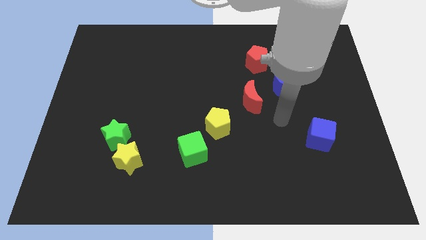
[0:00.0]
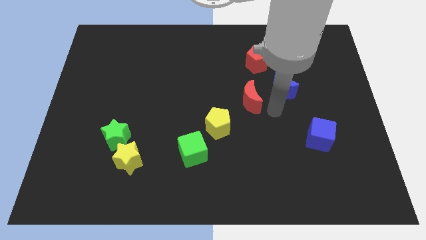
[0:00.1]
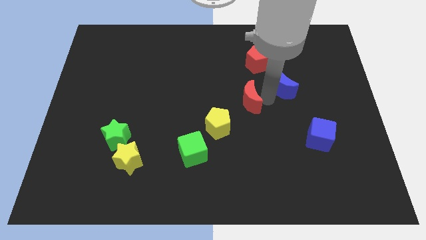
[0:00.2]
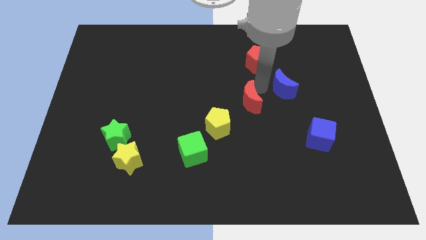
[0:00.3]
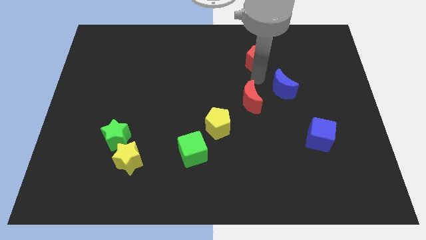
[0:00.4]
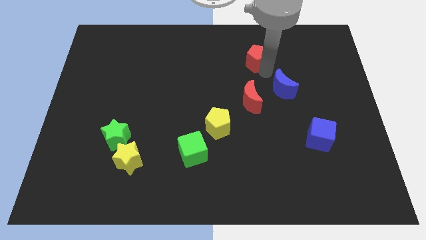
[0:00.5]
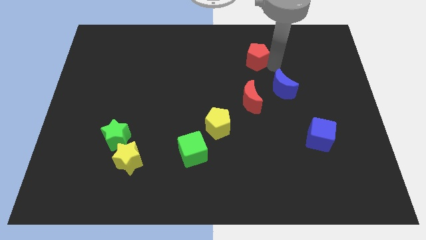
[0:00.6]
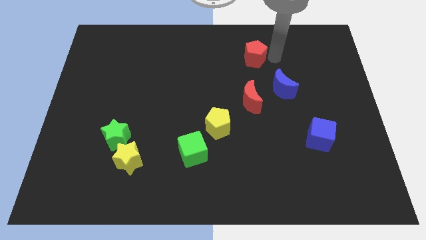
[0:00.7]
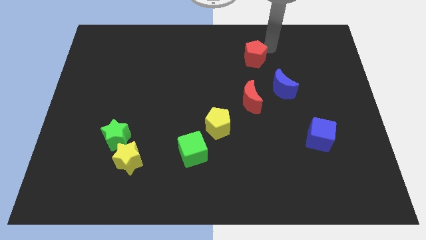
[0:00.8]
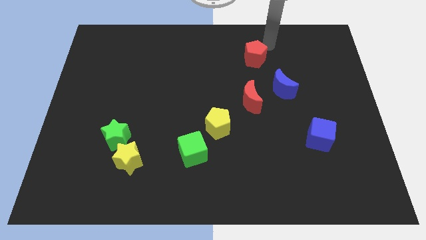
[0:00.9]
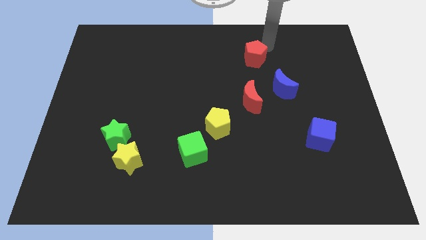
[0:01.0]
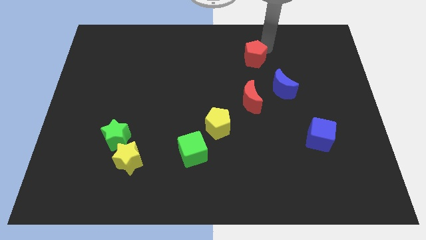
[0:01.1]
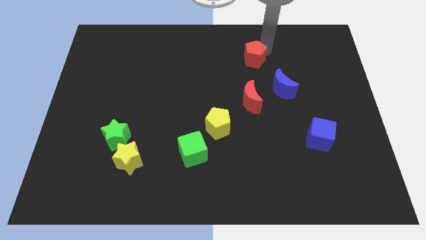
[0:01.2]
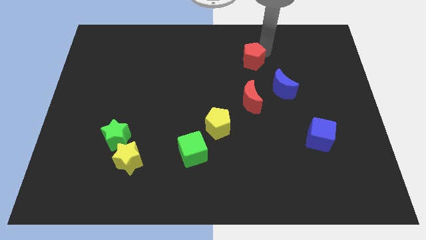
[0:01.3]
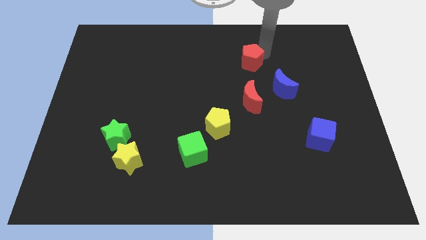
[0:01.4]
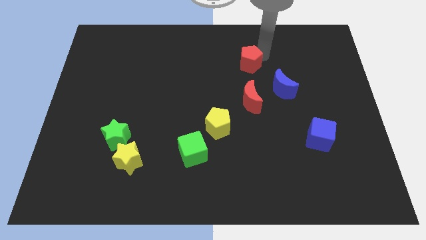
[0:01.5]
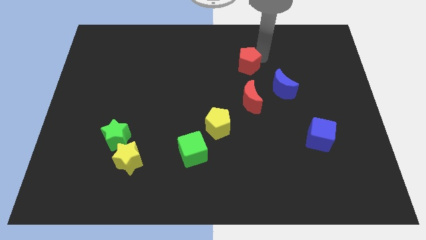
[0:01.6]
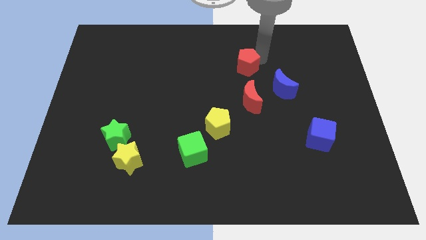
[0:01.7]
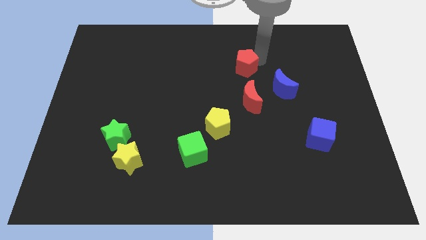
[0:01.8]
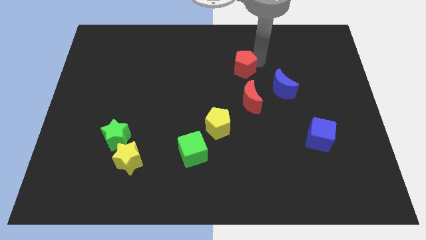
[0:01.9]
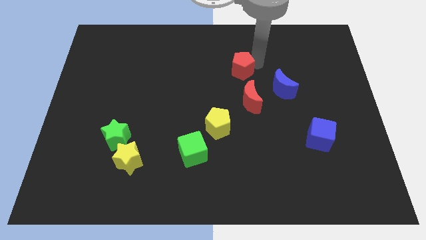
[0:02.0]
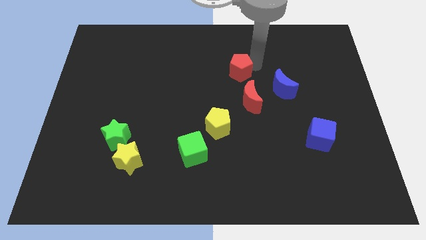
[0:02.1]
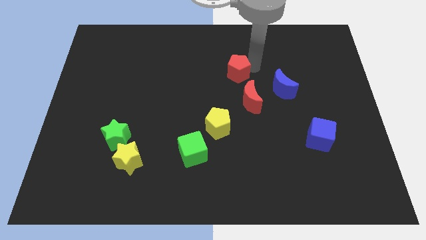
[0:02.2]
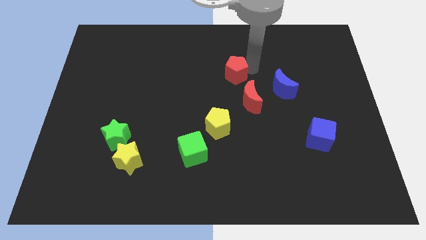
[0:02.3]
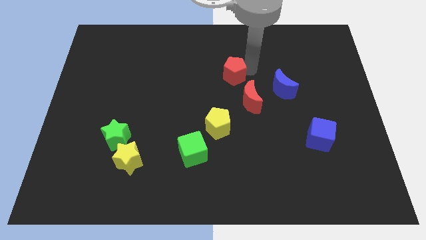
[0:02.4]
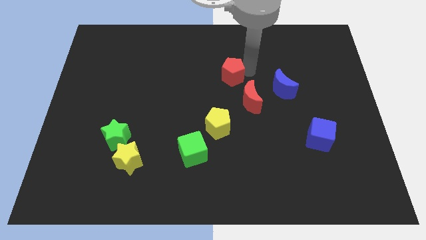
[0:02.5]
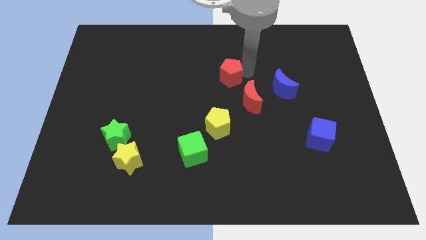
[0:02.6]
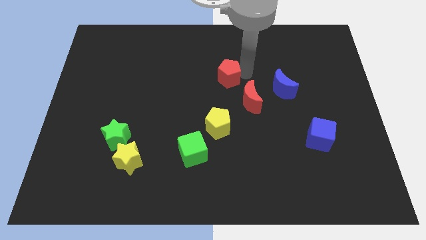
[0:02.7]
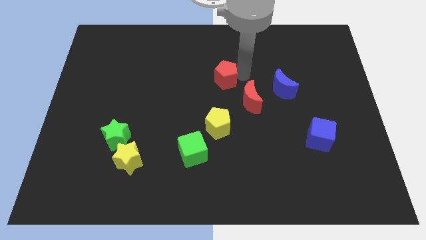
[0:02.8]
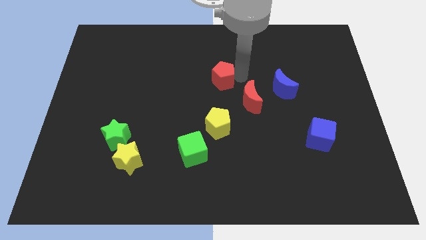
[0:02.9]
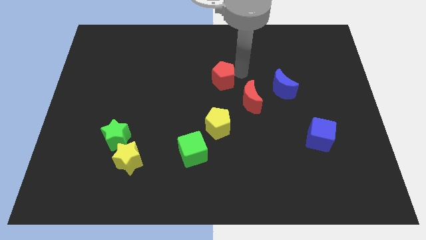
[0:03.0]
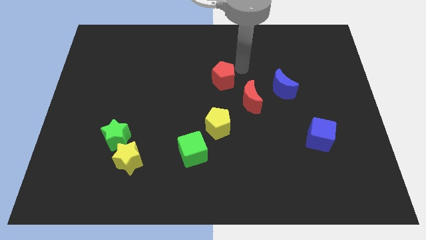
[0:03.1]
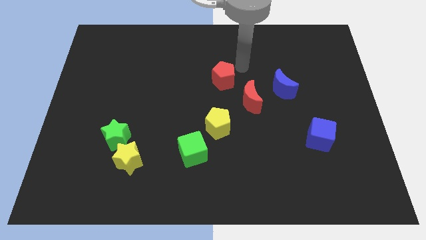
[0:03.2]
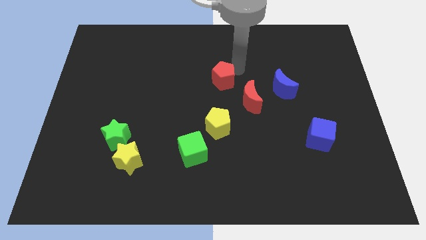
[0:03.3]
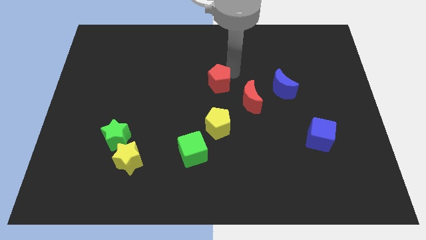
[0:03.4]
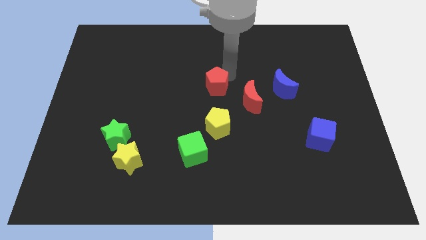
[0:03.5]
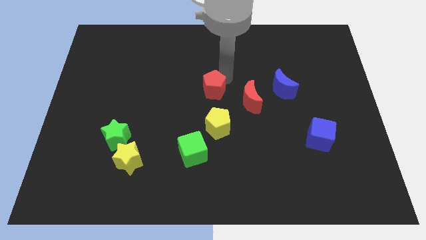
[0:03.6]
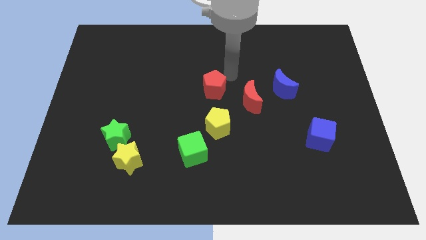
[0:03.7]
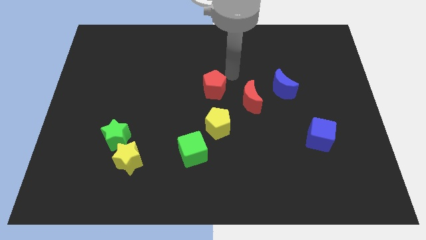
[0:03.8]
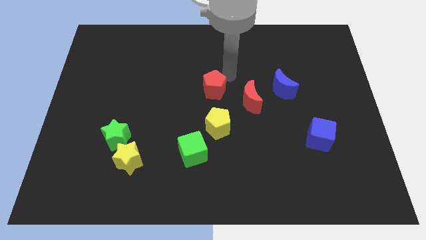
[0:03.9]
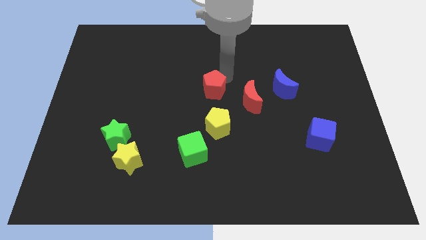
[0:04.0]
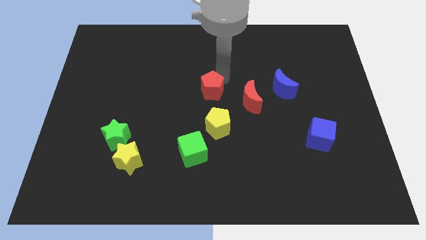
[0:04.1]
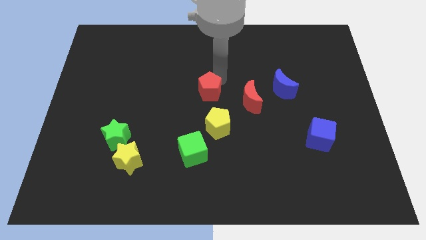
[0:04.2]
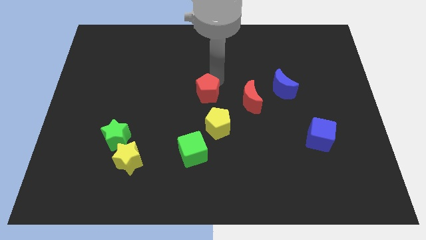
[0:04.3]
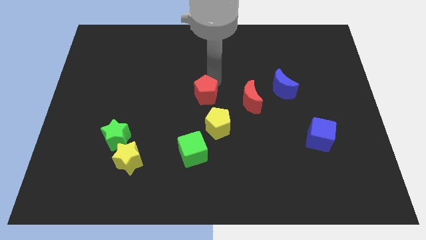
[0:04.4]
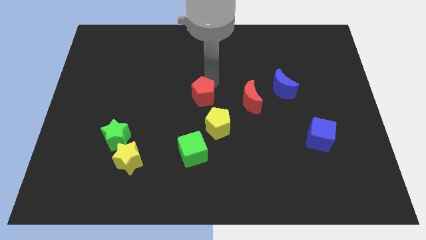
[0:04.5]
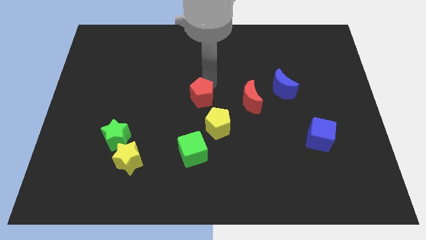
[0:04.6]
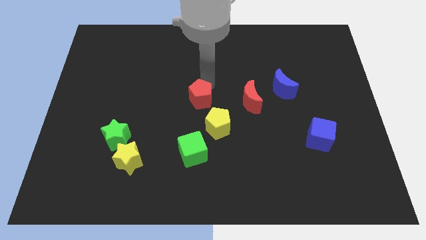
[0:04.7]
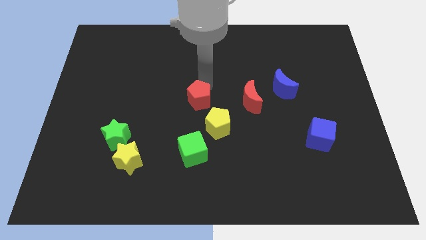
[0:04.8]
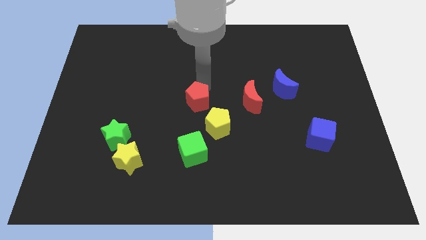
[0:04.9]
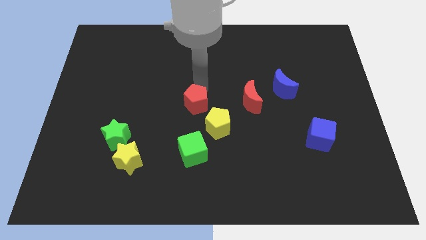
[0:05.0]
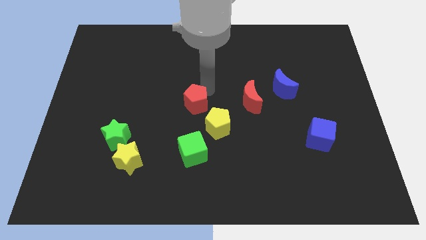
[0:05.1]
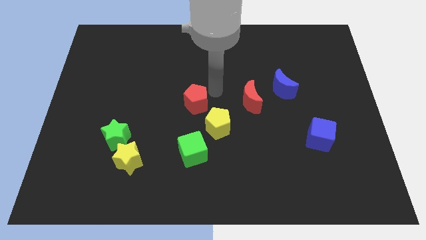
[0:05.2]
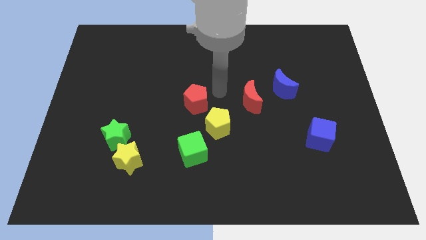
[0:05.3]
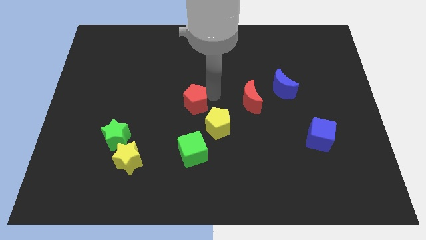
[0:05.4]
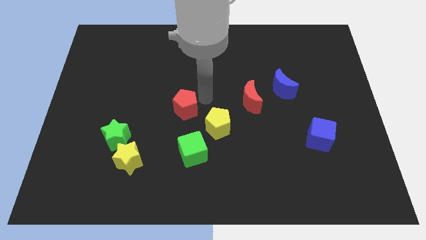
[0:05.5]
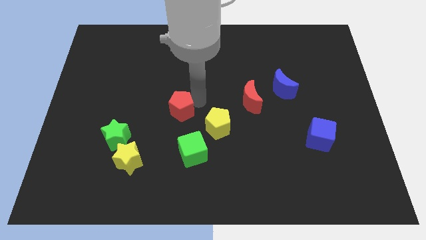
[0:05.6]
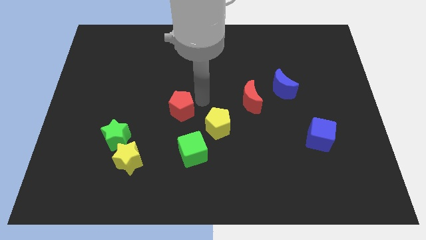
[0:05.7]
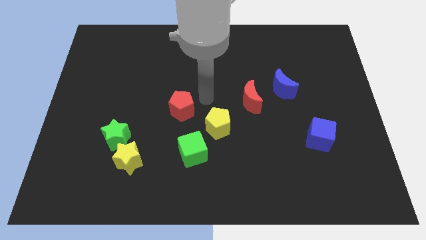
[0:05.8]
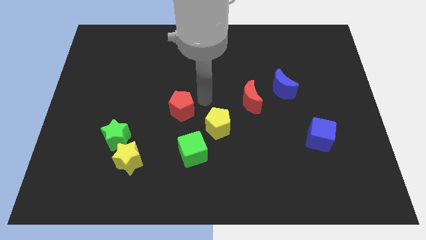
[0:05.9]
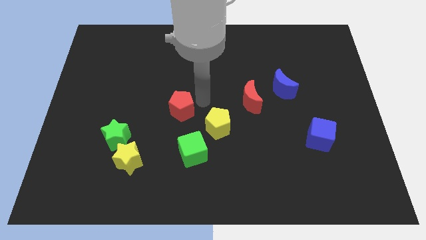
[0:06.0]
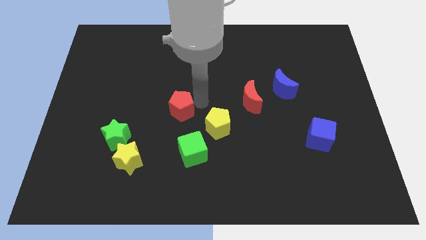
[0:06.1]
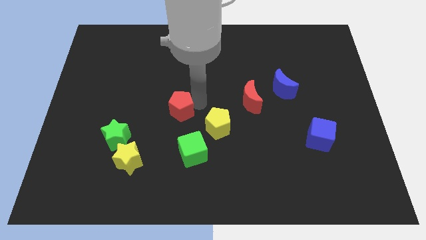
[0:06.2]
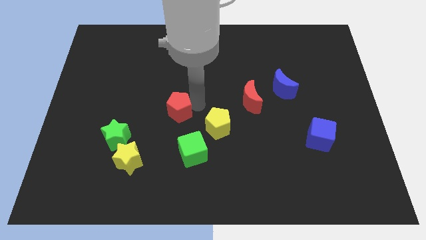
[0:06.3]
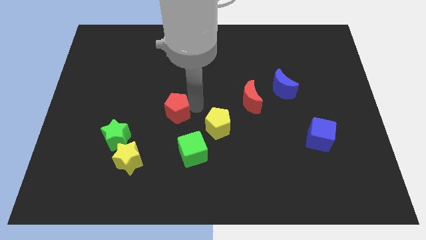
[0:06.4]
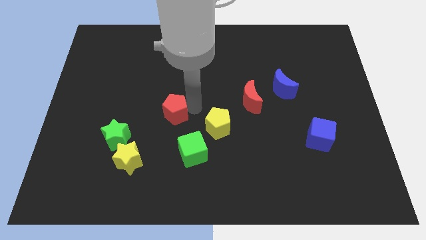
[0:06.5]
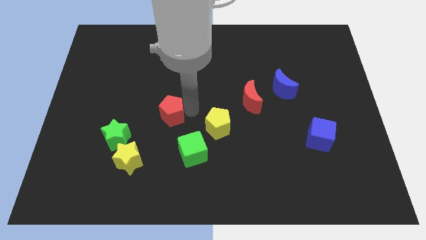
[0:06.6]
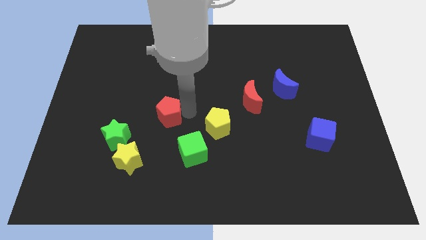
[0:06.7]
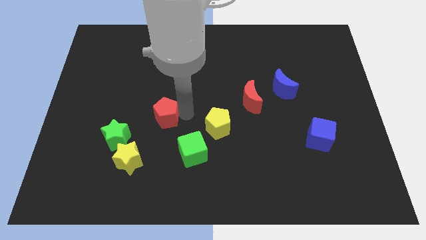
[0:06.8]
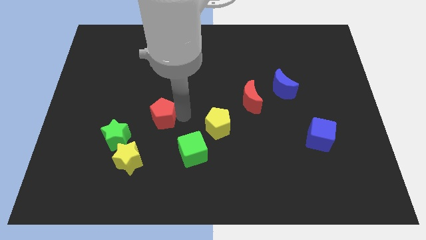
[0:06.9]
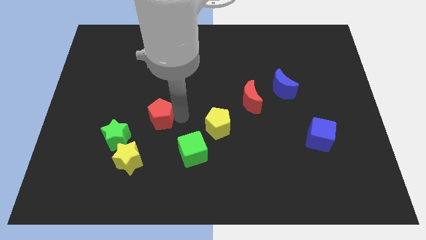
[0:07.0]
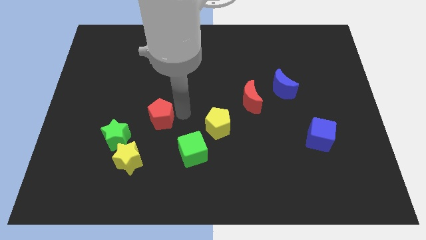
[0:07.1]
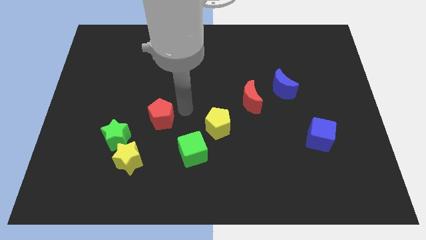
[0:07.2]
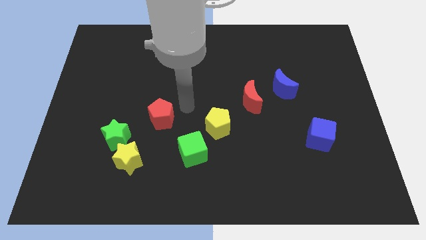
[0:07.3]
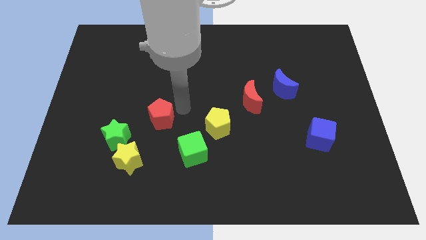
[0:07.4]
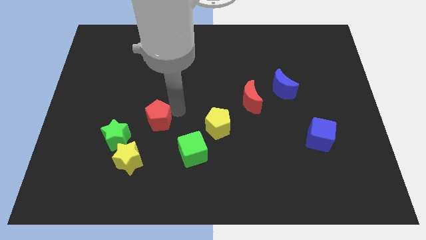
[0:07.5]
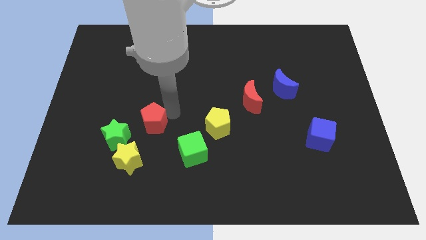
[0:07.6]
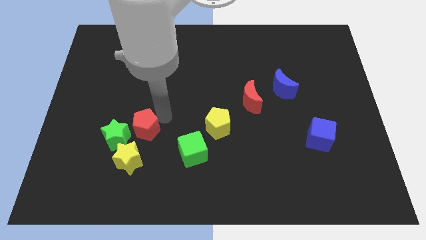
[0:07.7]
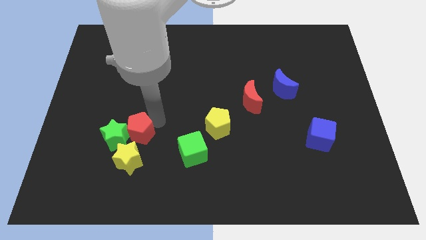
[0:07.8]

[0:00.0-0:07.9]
put the red pentagon next to the green star

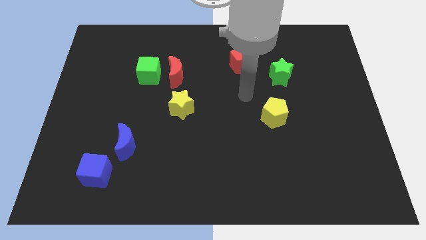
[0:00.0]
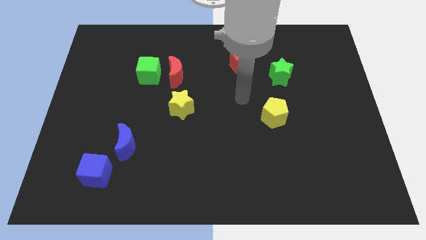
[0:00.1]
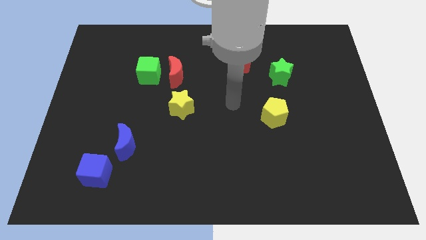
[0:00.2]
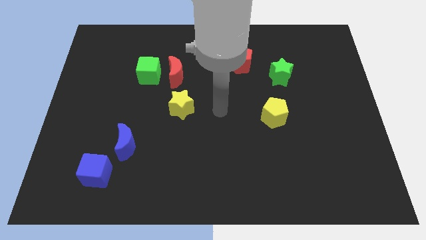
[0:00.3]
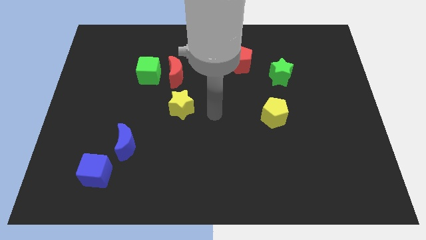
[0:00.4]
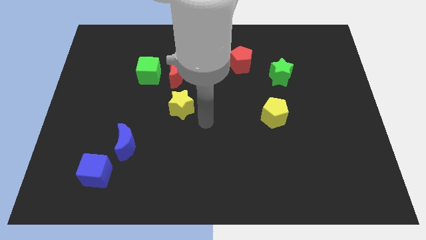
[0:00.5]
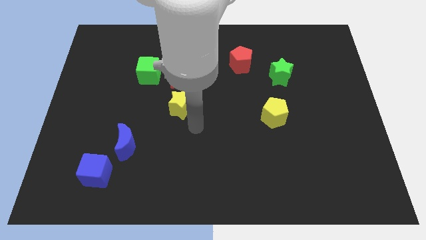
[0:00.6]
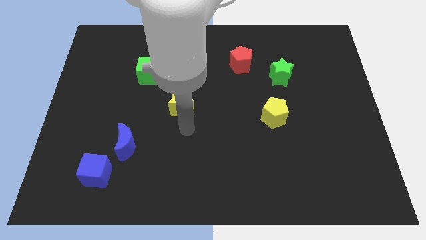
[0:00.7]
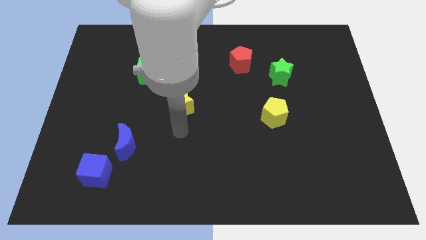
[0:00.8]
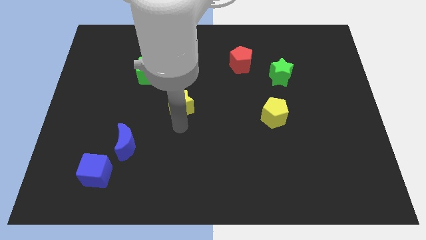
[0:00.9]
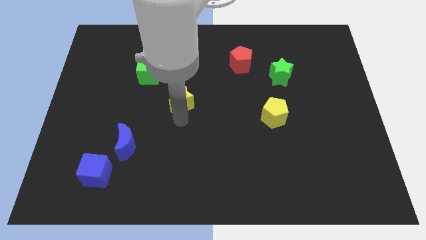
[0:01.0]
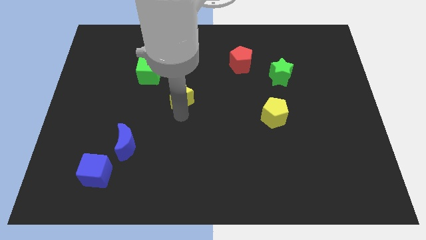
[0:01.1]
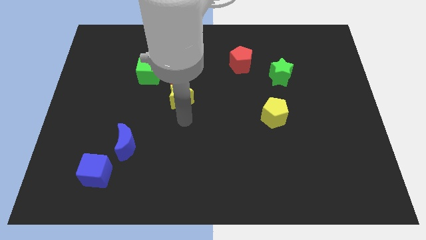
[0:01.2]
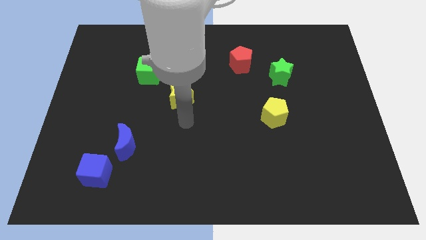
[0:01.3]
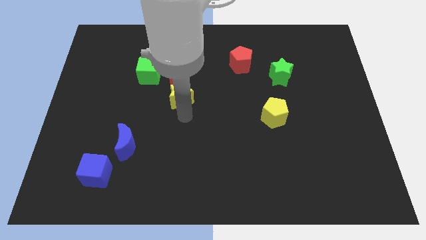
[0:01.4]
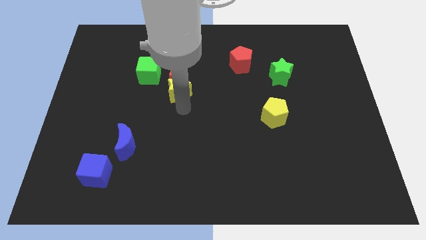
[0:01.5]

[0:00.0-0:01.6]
slide the yellow star towards the red moon
